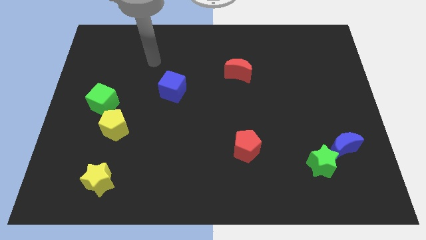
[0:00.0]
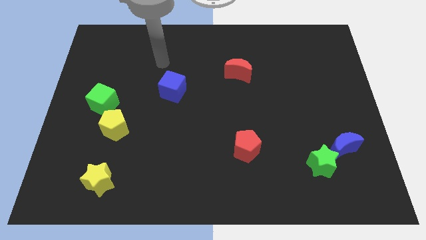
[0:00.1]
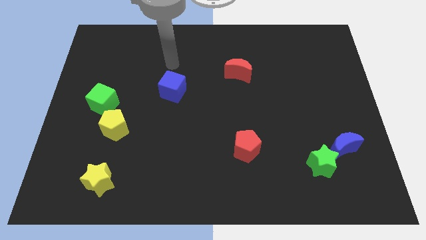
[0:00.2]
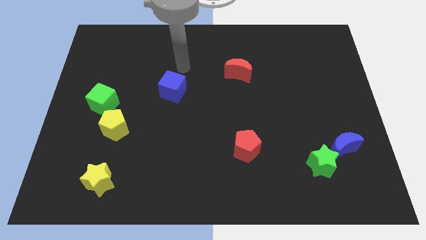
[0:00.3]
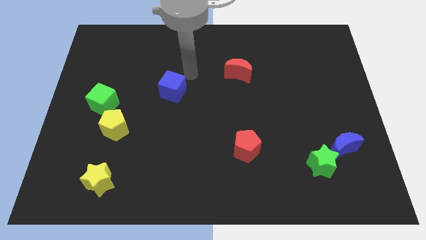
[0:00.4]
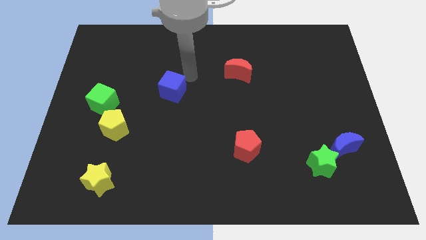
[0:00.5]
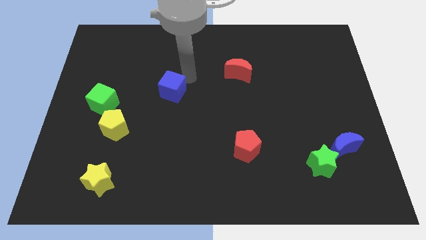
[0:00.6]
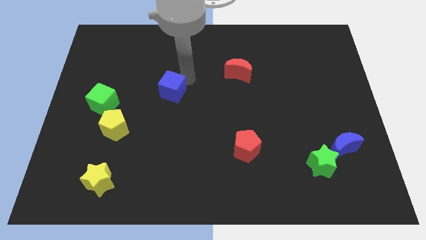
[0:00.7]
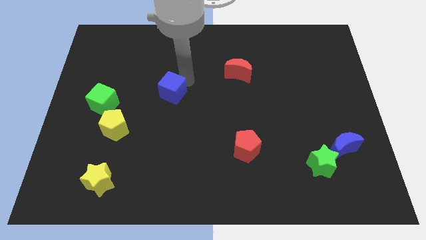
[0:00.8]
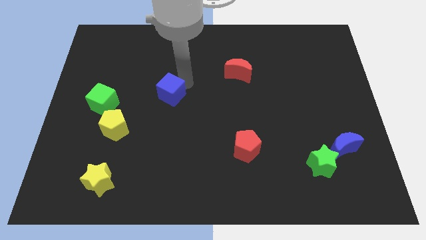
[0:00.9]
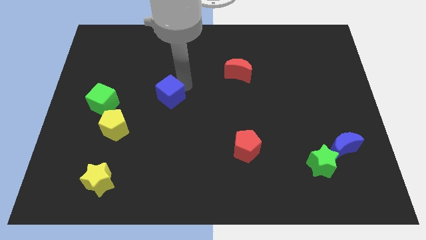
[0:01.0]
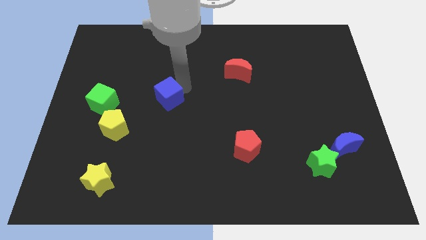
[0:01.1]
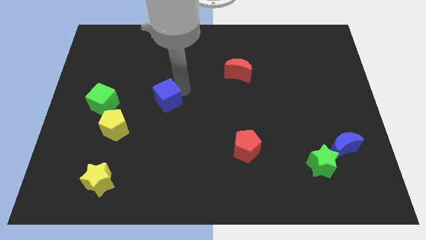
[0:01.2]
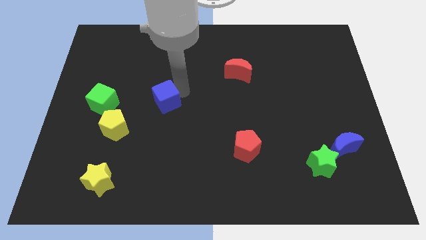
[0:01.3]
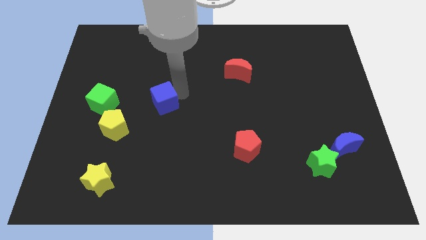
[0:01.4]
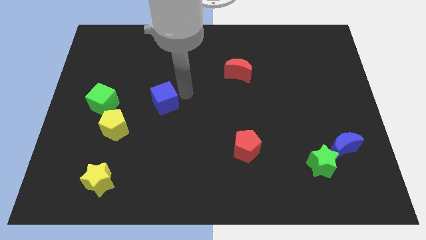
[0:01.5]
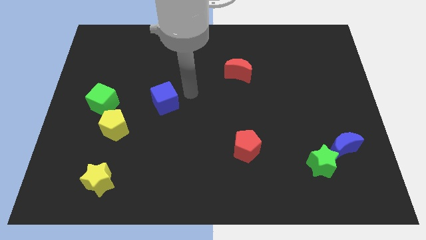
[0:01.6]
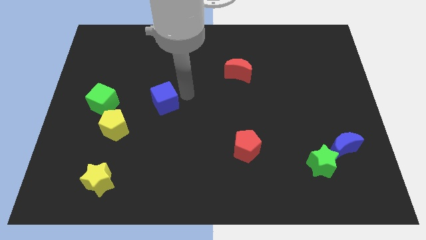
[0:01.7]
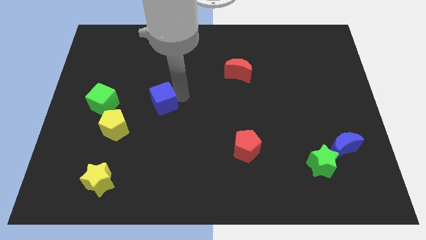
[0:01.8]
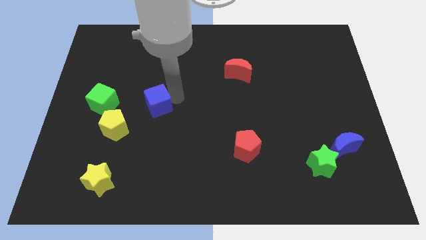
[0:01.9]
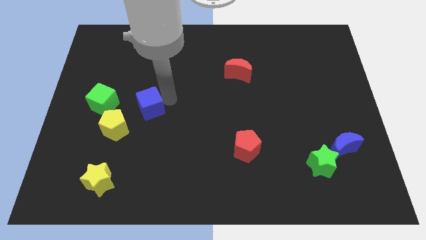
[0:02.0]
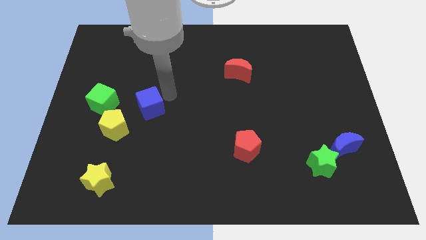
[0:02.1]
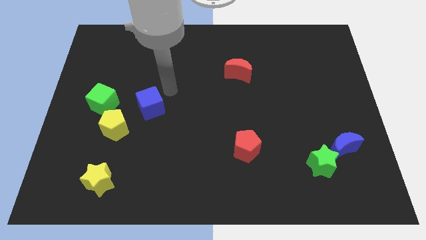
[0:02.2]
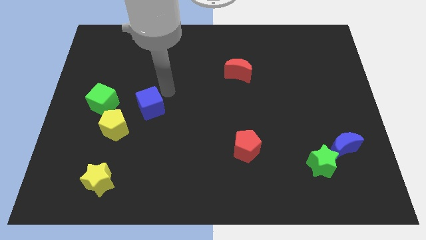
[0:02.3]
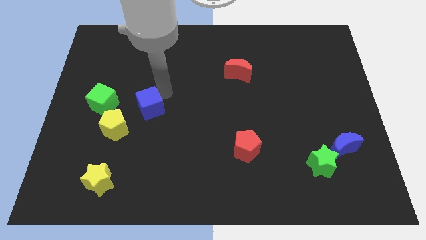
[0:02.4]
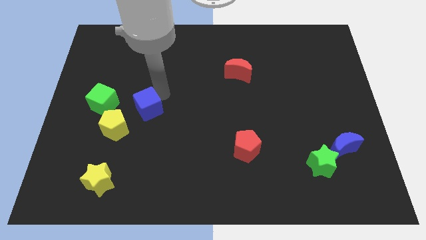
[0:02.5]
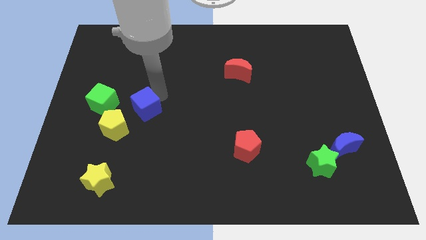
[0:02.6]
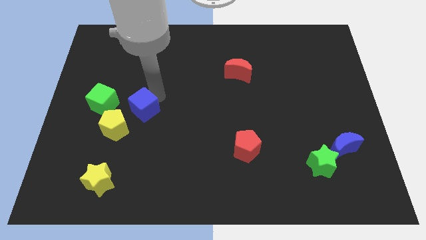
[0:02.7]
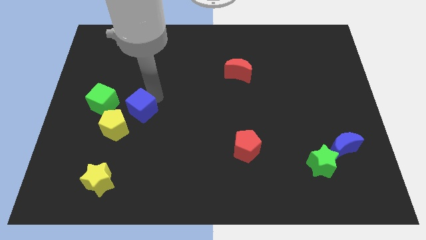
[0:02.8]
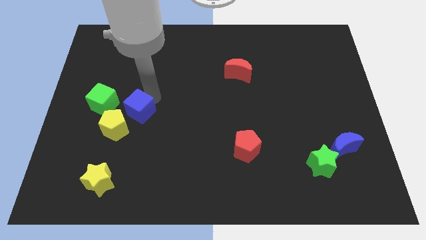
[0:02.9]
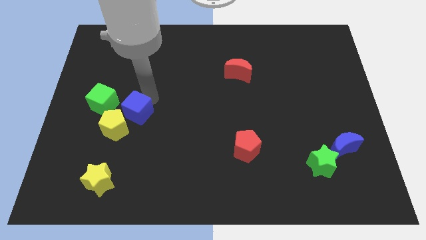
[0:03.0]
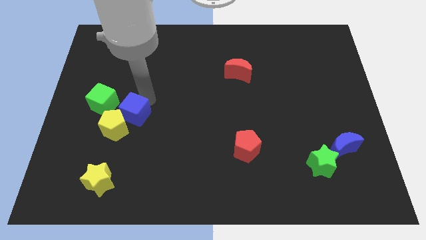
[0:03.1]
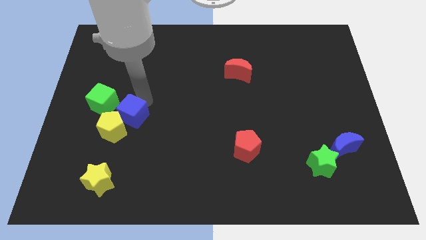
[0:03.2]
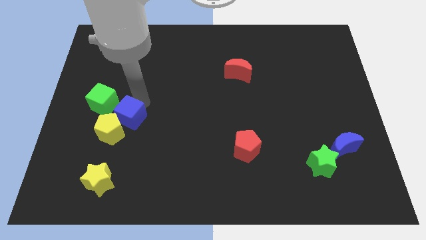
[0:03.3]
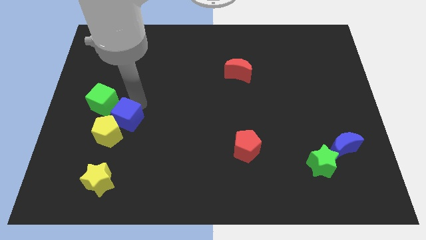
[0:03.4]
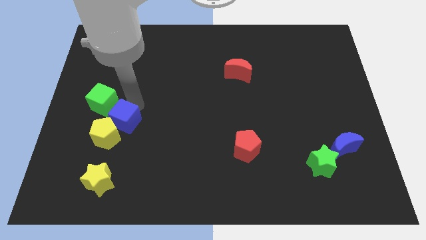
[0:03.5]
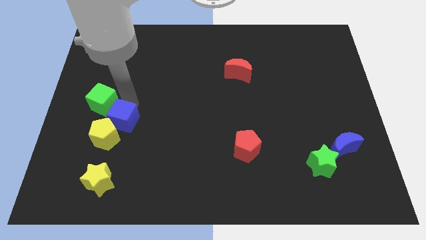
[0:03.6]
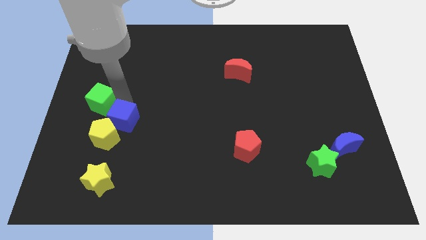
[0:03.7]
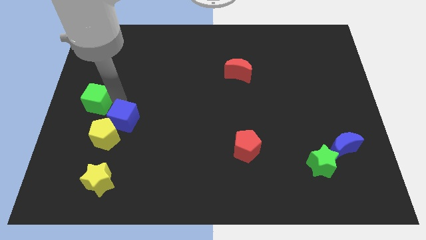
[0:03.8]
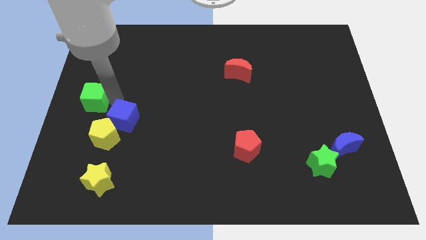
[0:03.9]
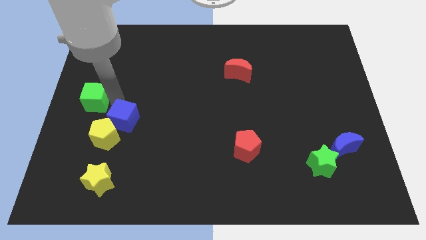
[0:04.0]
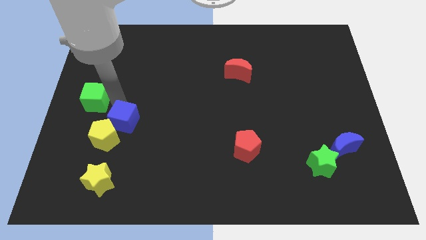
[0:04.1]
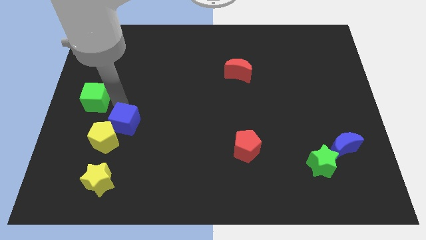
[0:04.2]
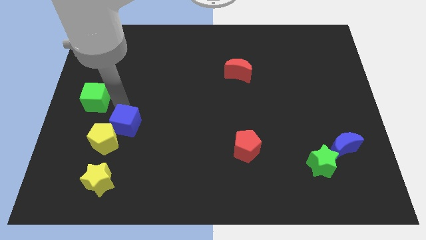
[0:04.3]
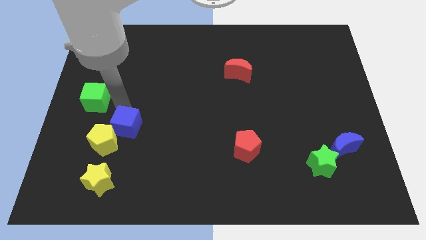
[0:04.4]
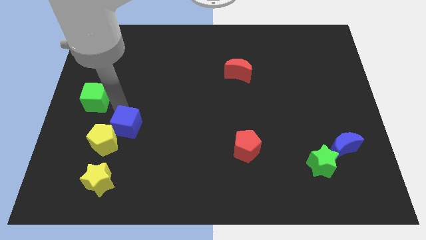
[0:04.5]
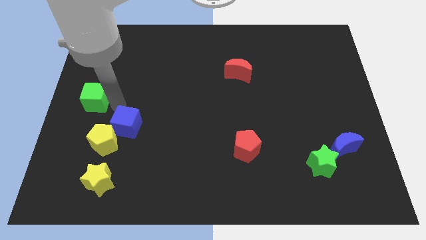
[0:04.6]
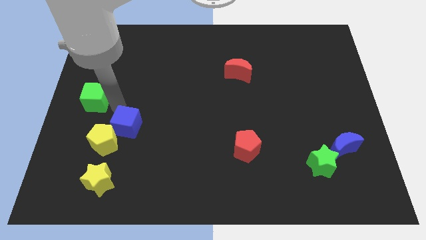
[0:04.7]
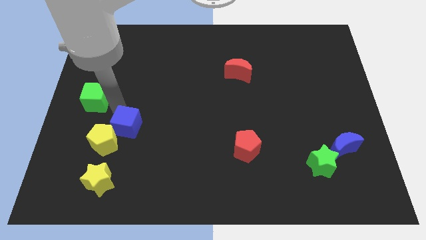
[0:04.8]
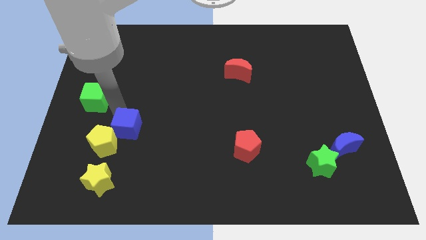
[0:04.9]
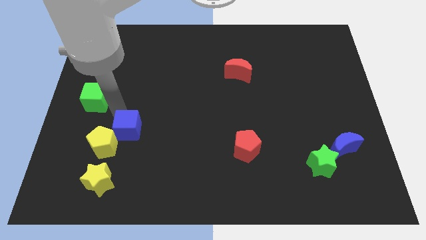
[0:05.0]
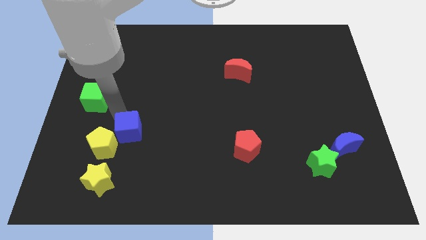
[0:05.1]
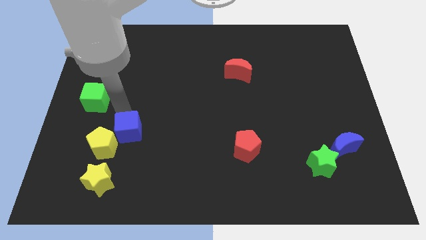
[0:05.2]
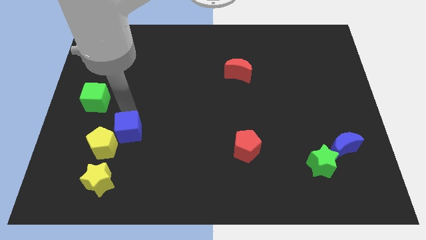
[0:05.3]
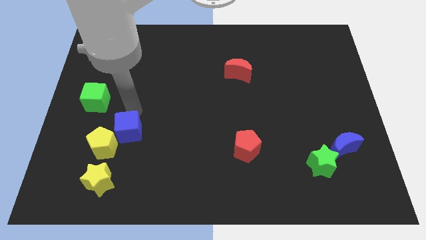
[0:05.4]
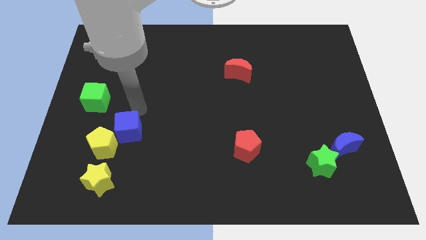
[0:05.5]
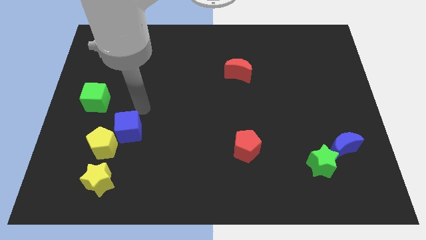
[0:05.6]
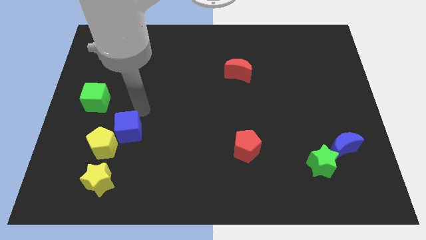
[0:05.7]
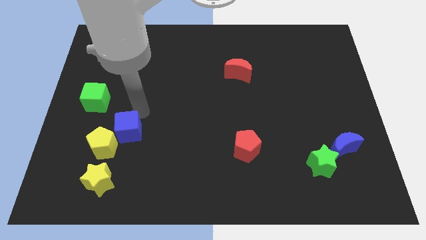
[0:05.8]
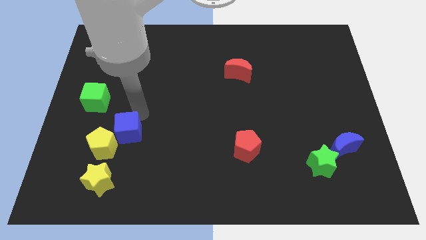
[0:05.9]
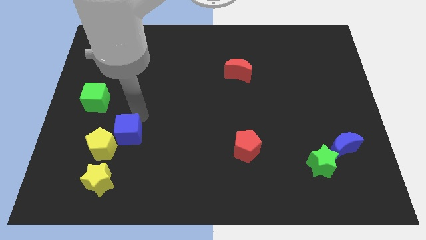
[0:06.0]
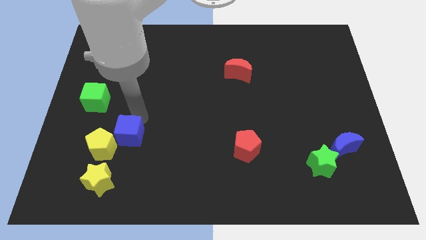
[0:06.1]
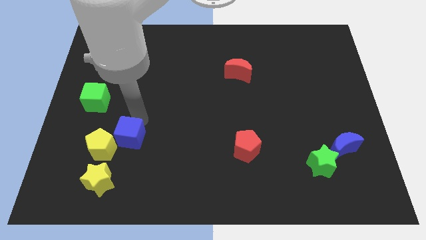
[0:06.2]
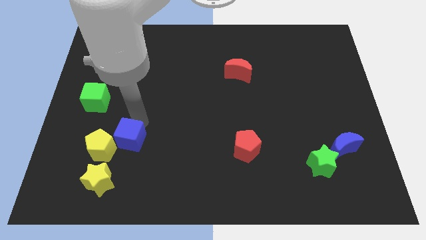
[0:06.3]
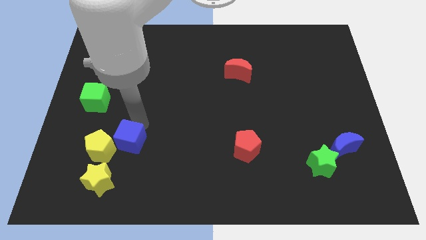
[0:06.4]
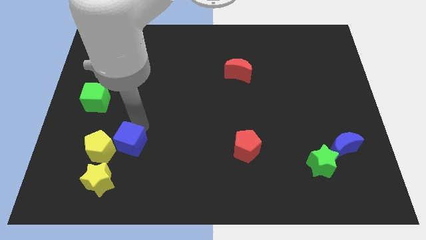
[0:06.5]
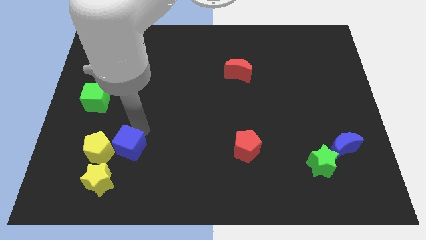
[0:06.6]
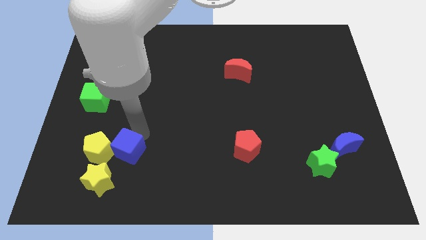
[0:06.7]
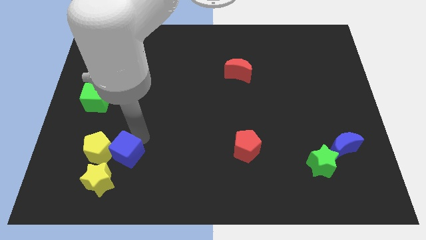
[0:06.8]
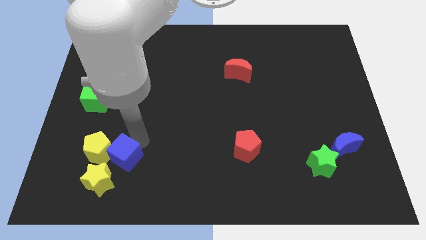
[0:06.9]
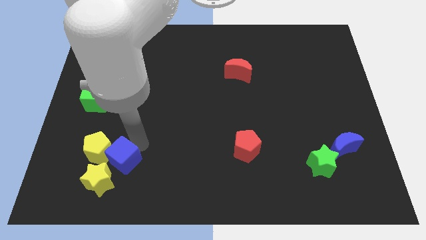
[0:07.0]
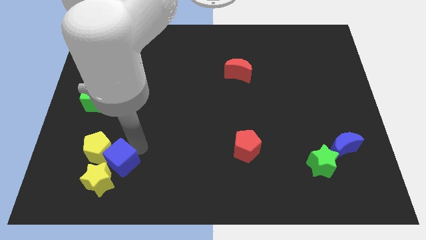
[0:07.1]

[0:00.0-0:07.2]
move the blue cube to the yellow star

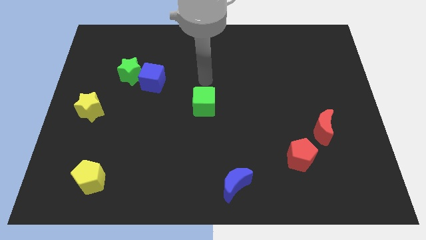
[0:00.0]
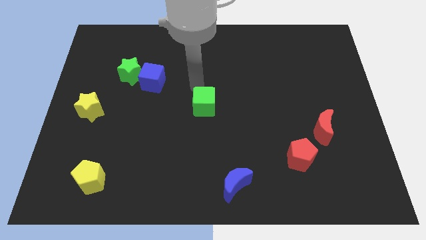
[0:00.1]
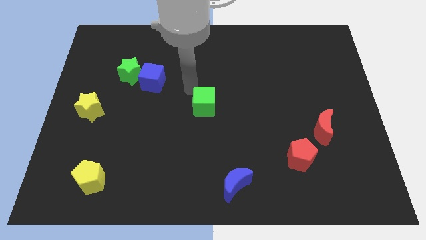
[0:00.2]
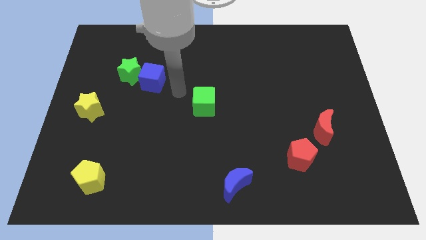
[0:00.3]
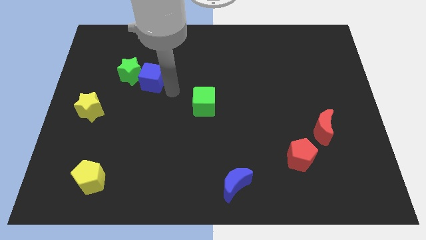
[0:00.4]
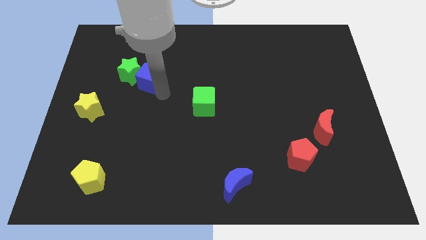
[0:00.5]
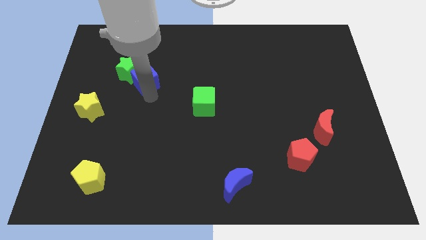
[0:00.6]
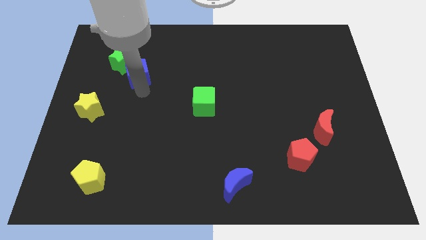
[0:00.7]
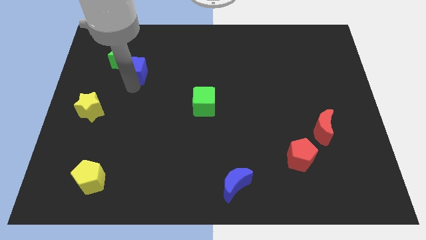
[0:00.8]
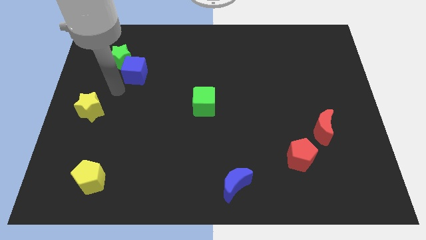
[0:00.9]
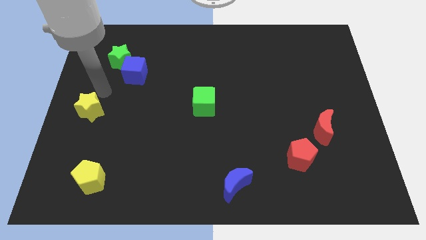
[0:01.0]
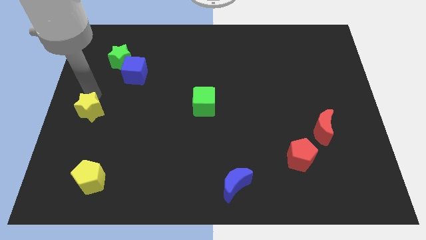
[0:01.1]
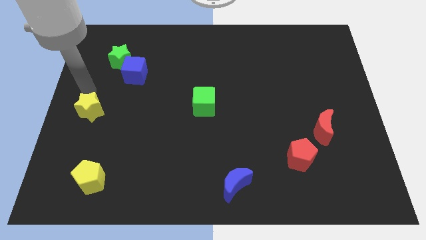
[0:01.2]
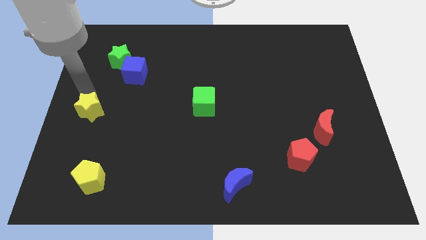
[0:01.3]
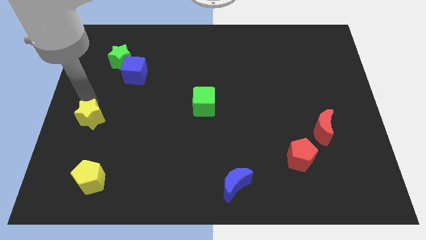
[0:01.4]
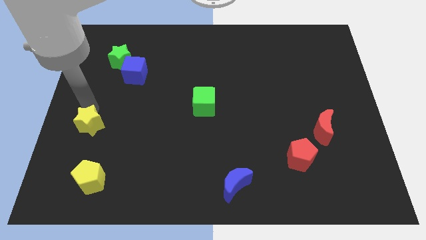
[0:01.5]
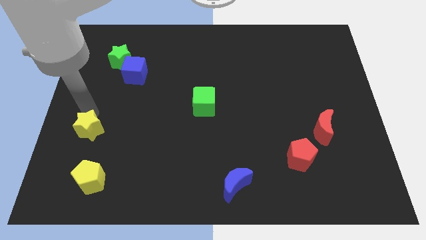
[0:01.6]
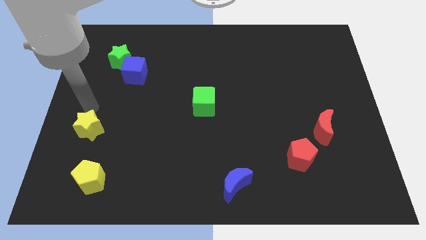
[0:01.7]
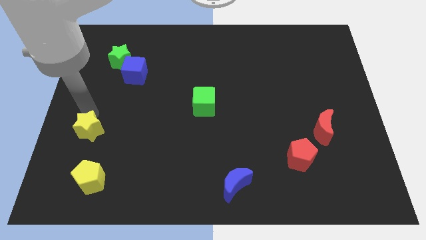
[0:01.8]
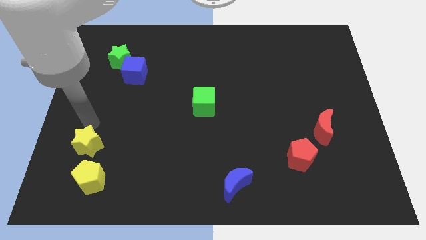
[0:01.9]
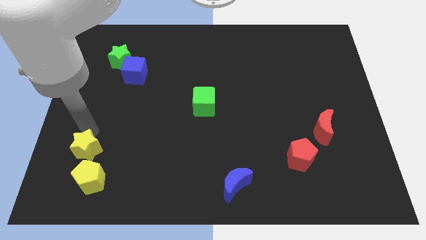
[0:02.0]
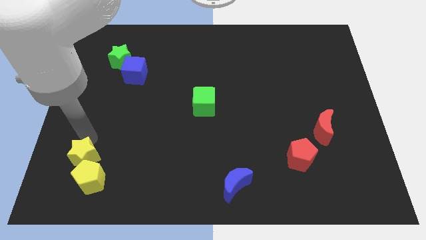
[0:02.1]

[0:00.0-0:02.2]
move the yellow star close to the yellow pentagon
